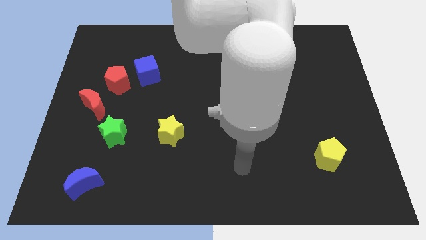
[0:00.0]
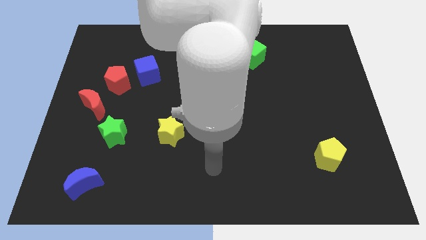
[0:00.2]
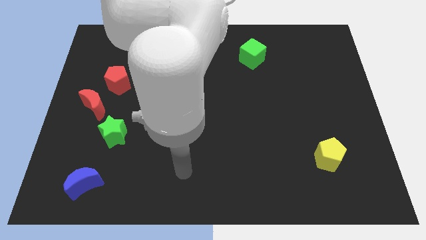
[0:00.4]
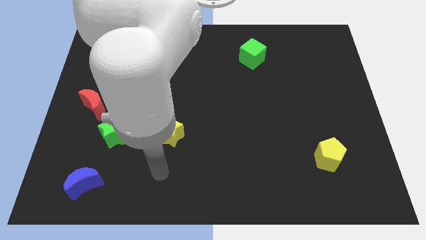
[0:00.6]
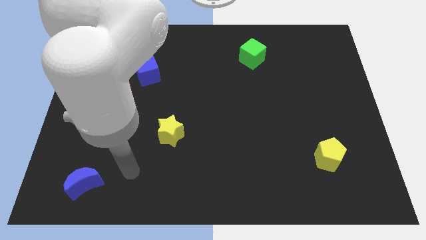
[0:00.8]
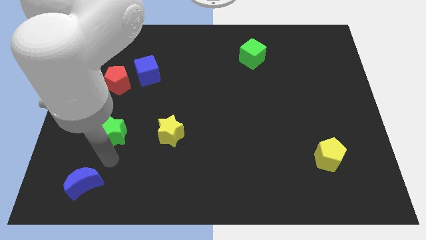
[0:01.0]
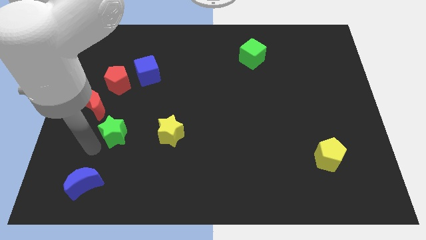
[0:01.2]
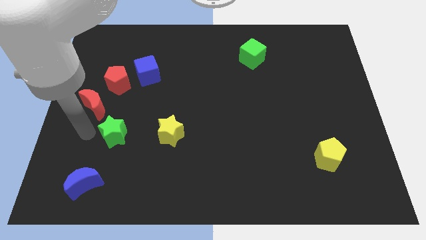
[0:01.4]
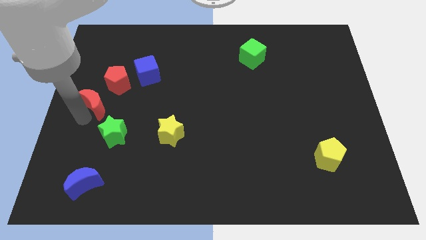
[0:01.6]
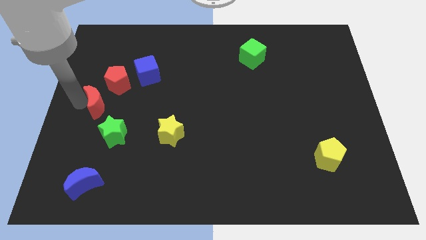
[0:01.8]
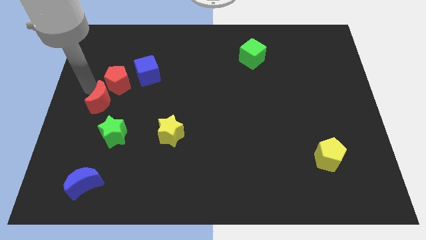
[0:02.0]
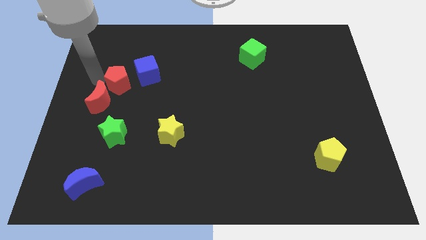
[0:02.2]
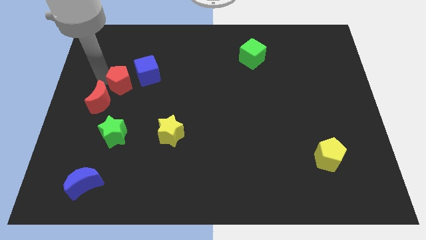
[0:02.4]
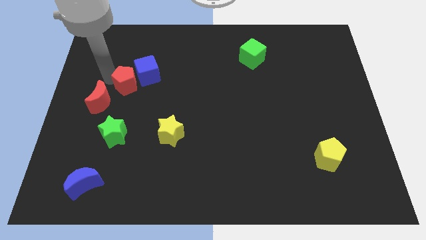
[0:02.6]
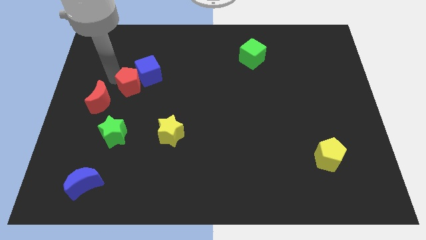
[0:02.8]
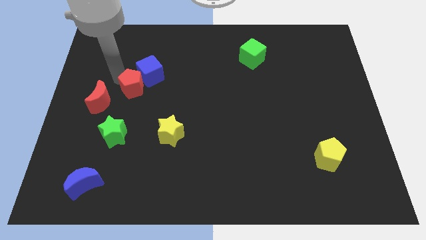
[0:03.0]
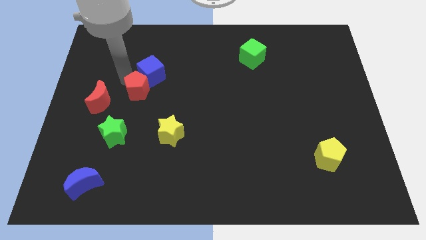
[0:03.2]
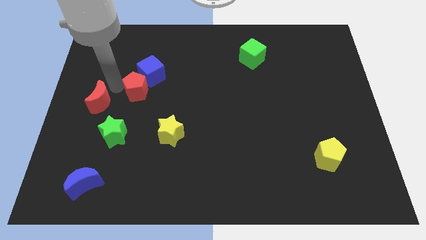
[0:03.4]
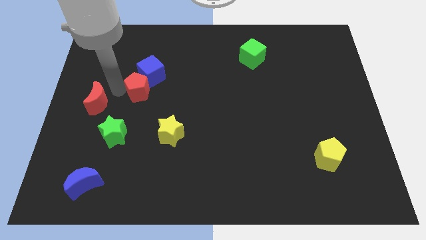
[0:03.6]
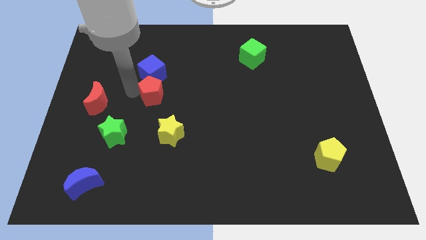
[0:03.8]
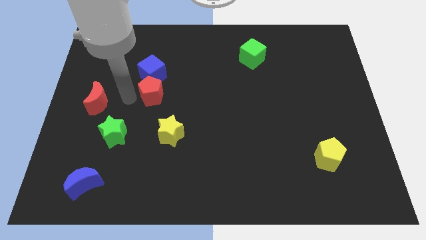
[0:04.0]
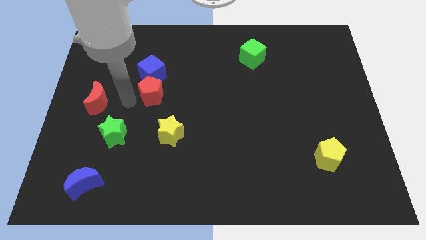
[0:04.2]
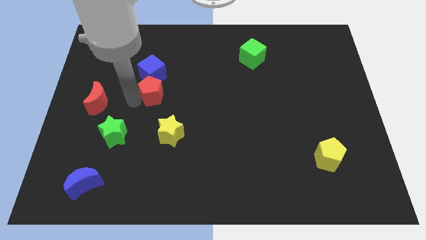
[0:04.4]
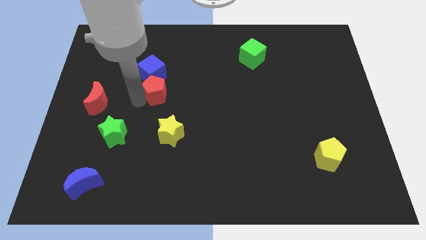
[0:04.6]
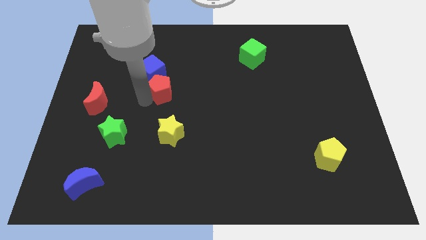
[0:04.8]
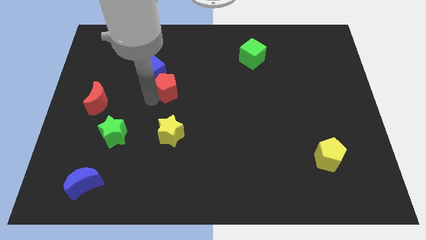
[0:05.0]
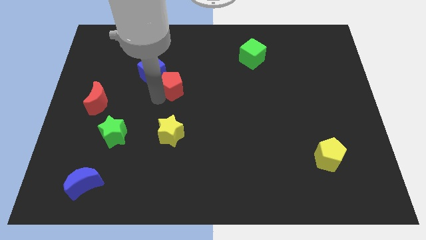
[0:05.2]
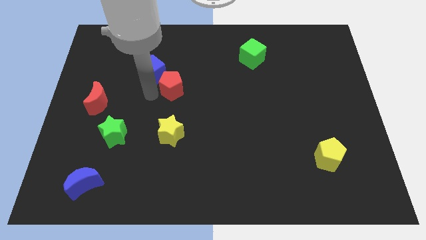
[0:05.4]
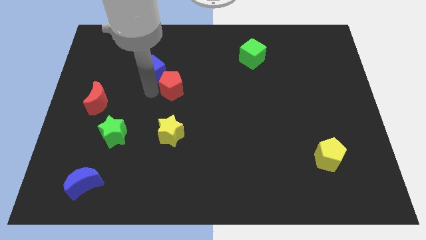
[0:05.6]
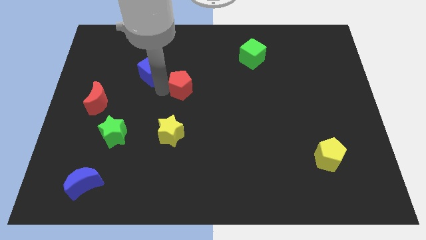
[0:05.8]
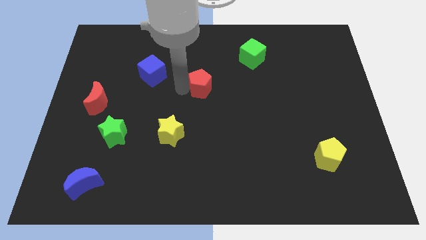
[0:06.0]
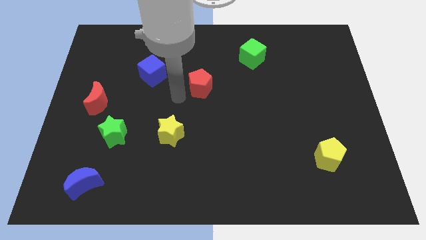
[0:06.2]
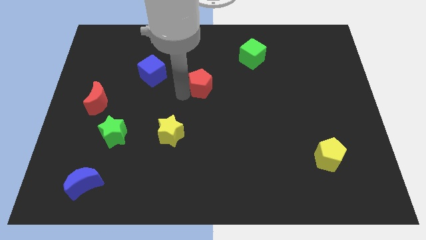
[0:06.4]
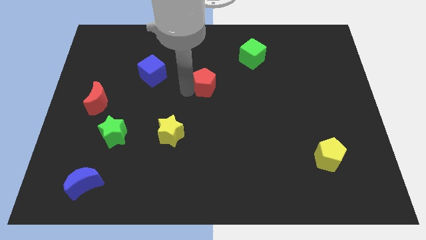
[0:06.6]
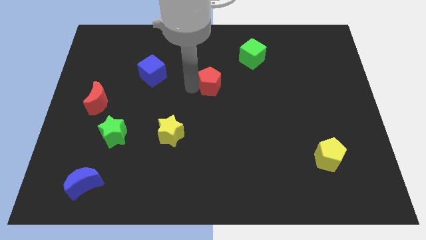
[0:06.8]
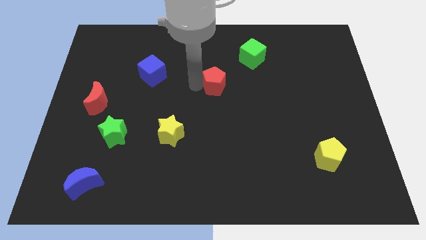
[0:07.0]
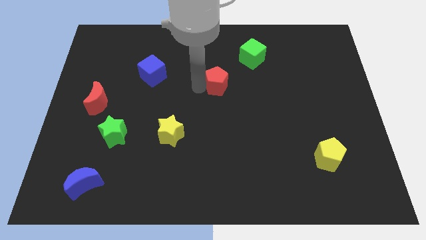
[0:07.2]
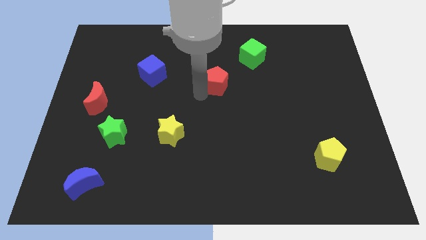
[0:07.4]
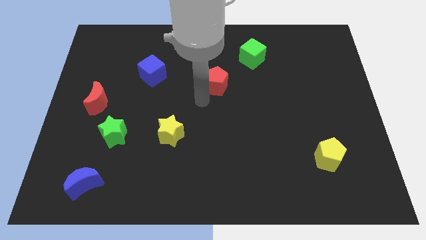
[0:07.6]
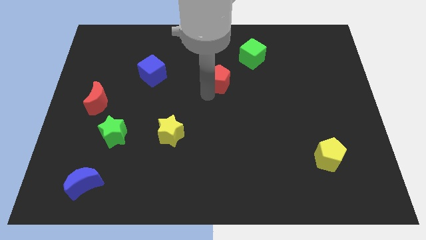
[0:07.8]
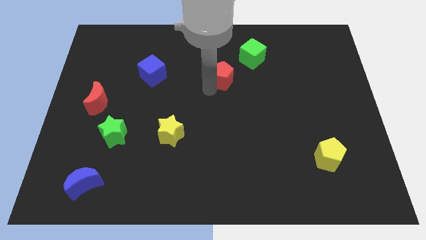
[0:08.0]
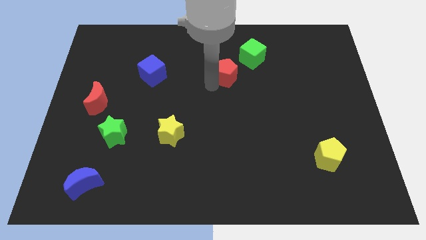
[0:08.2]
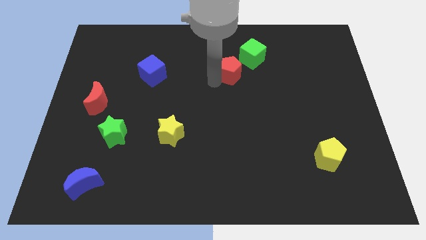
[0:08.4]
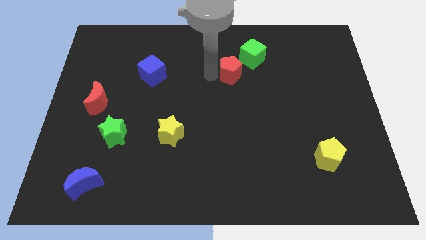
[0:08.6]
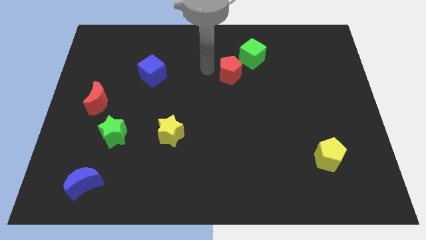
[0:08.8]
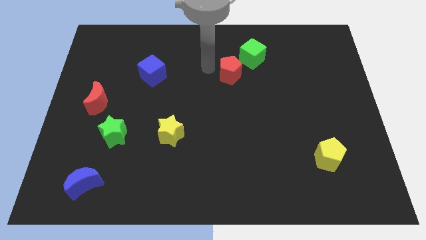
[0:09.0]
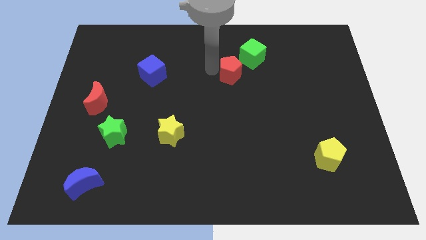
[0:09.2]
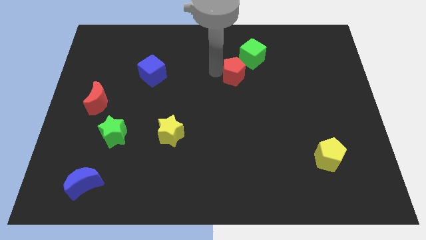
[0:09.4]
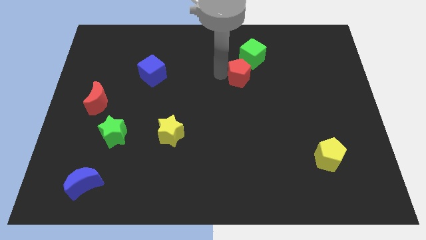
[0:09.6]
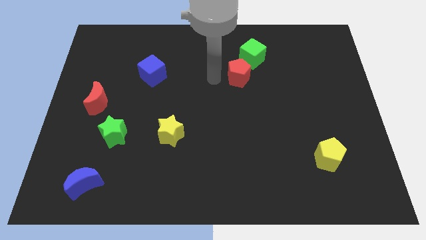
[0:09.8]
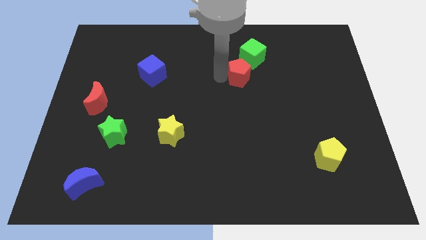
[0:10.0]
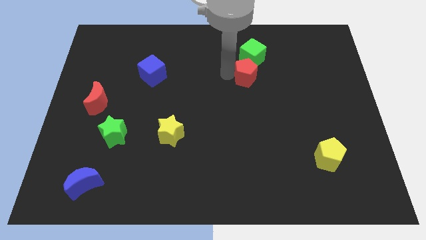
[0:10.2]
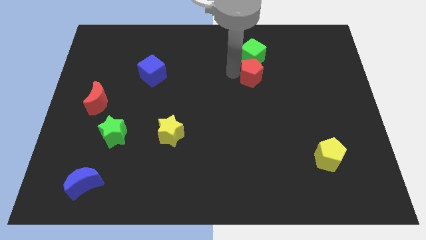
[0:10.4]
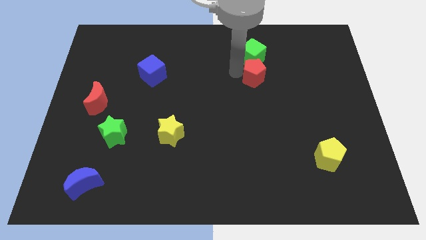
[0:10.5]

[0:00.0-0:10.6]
push the red pentagon to the bottom right side of the green cube

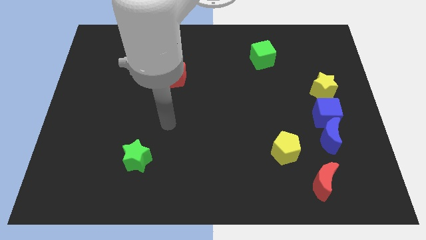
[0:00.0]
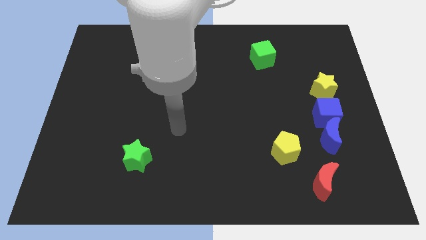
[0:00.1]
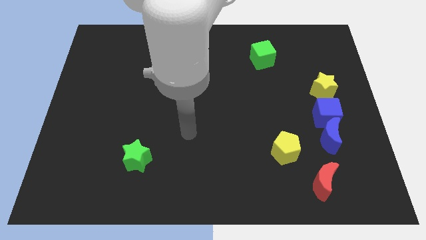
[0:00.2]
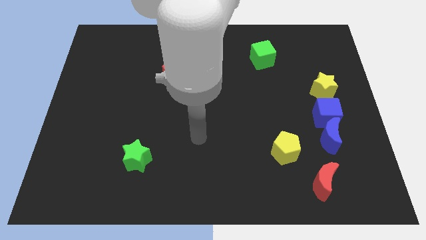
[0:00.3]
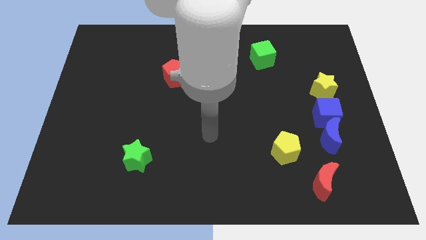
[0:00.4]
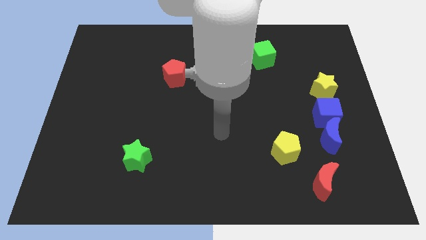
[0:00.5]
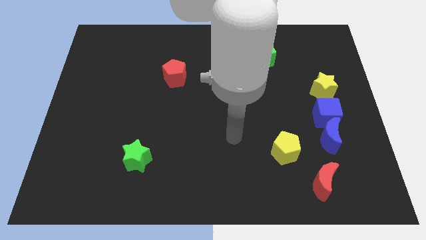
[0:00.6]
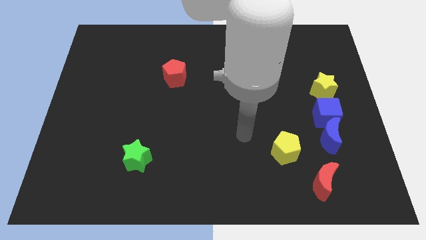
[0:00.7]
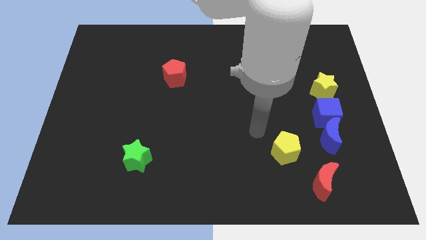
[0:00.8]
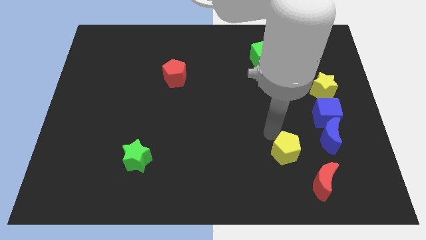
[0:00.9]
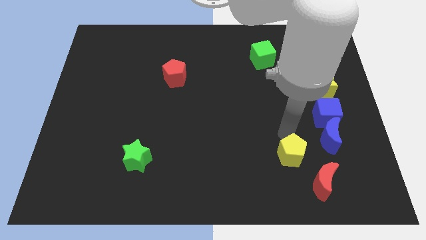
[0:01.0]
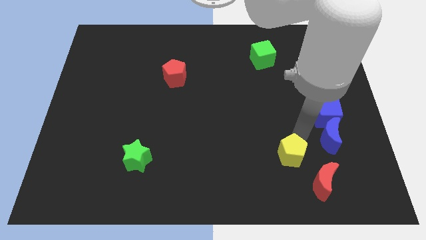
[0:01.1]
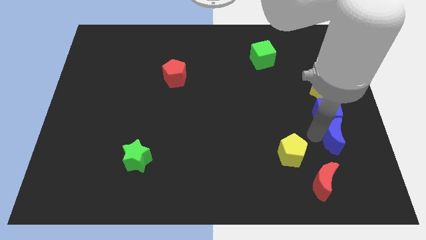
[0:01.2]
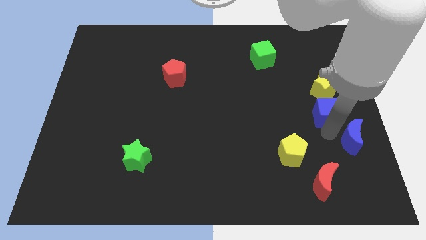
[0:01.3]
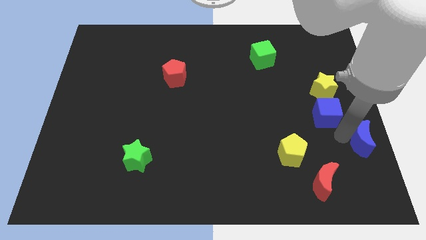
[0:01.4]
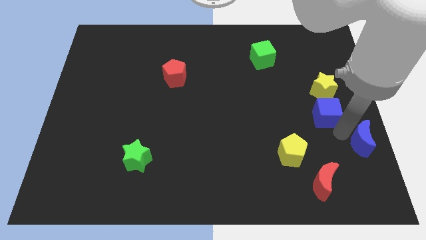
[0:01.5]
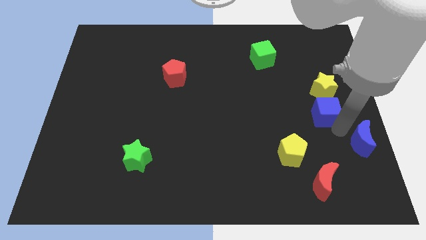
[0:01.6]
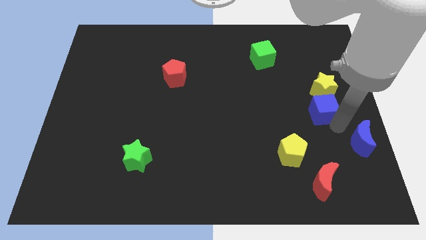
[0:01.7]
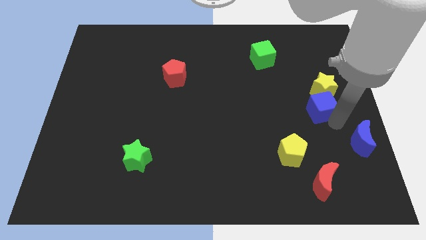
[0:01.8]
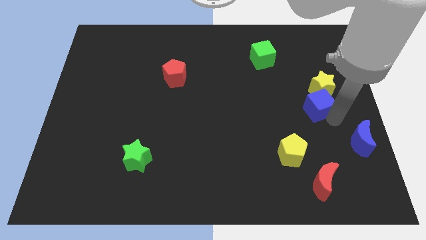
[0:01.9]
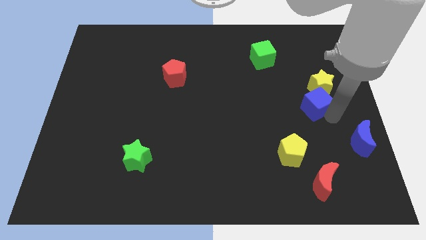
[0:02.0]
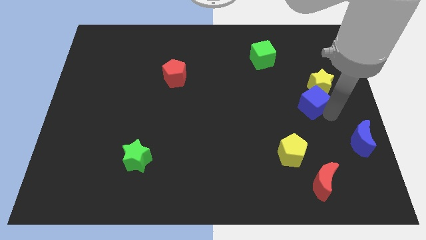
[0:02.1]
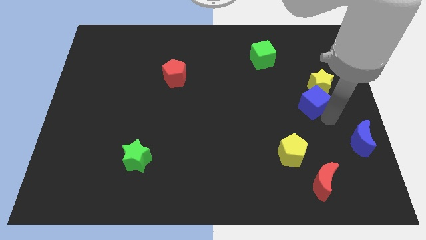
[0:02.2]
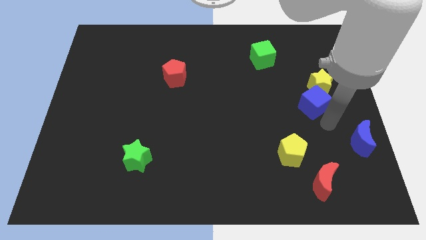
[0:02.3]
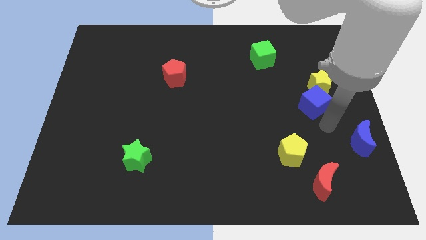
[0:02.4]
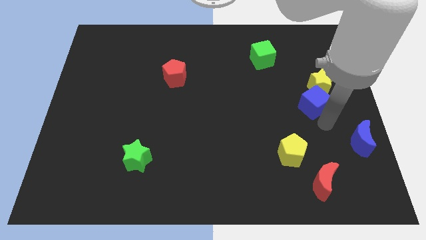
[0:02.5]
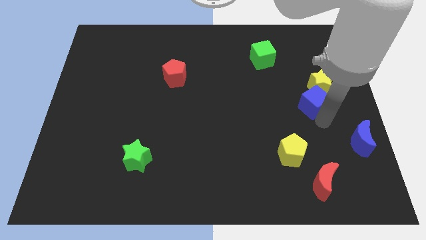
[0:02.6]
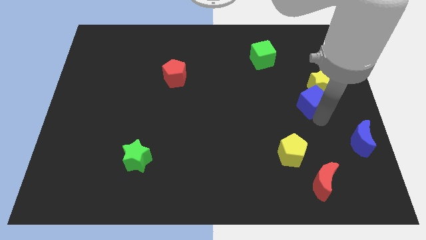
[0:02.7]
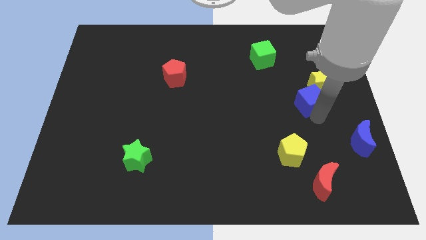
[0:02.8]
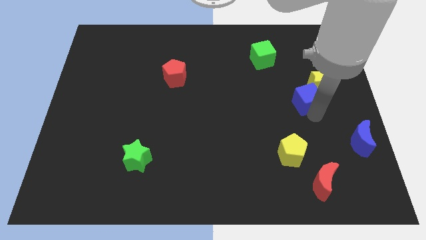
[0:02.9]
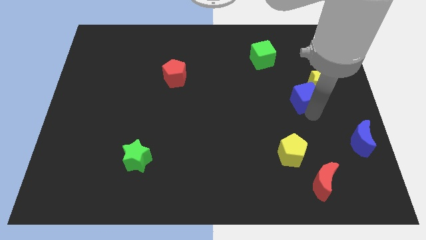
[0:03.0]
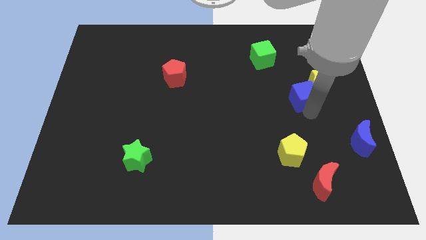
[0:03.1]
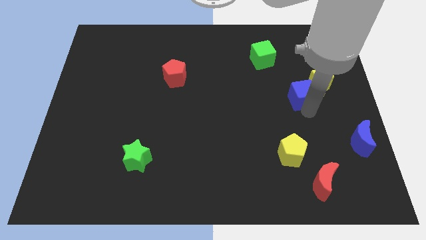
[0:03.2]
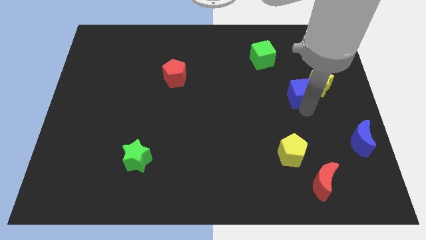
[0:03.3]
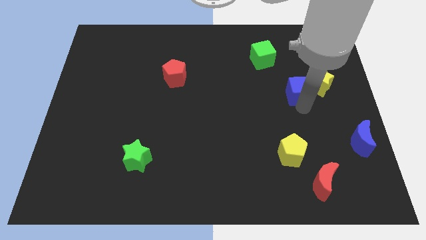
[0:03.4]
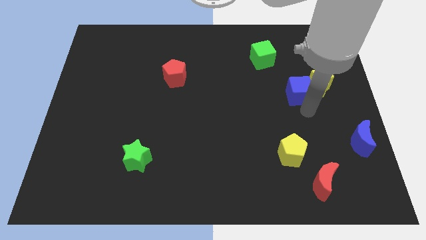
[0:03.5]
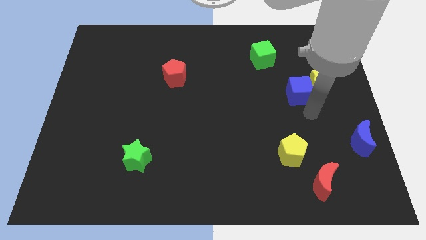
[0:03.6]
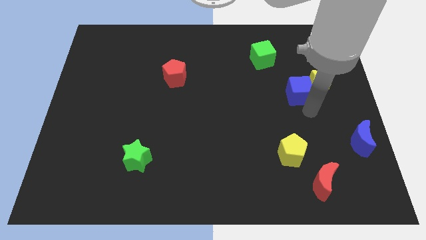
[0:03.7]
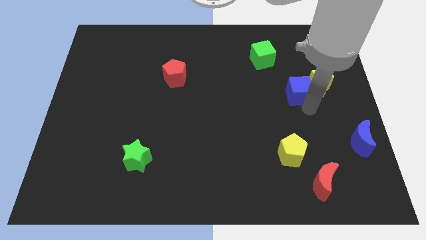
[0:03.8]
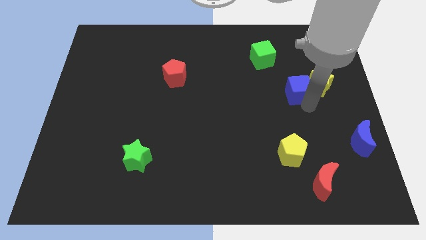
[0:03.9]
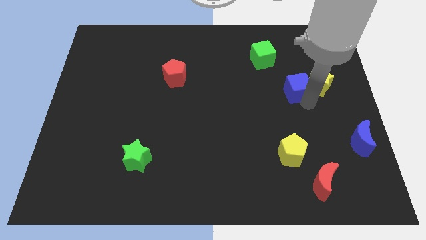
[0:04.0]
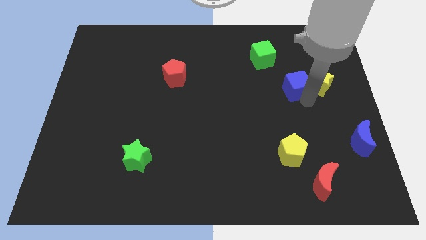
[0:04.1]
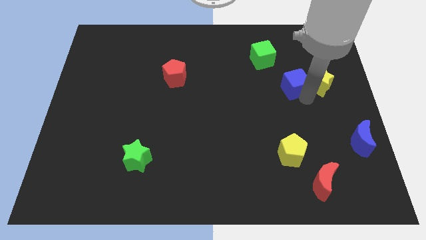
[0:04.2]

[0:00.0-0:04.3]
move the blue cube to the bottom right of the green cube
